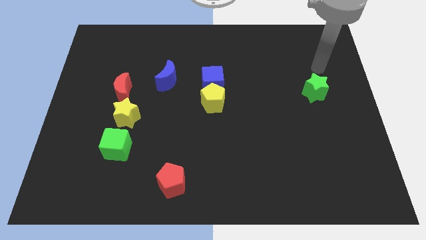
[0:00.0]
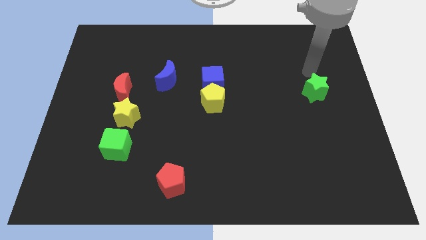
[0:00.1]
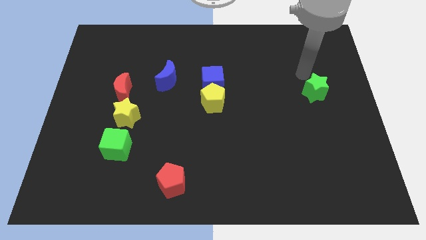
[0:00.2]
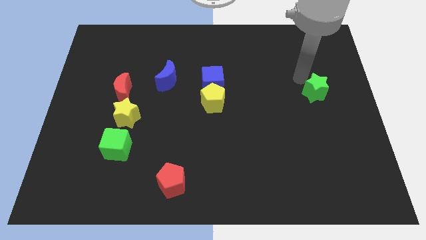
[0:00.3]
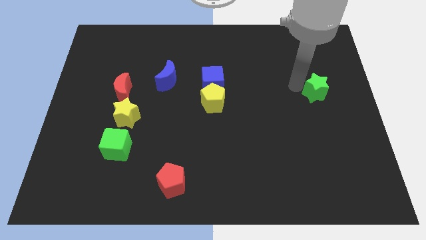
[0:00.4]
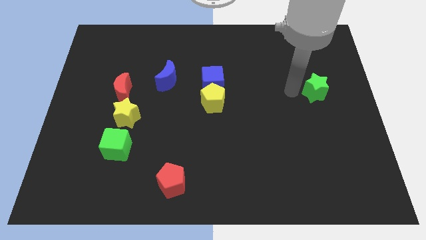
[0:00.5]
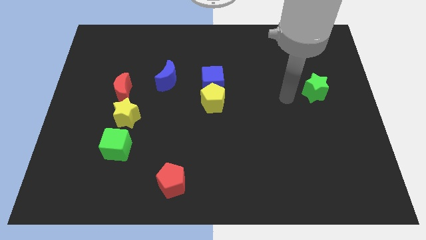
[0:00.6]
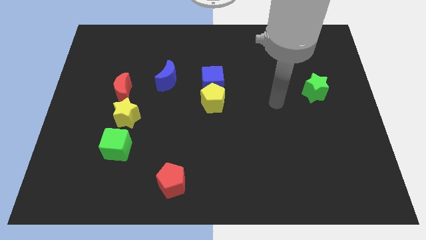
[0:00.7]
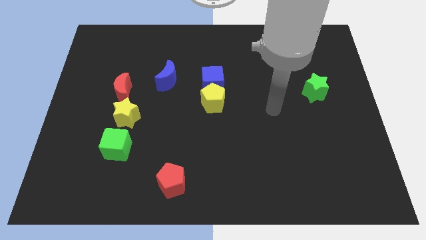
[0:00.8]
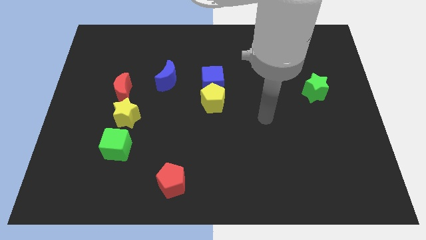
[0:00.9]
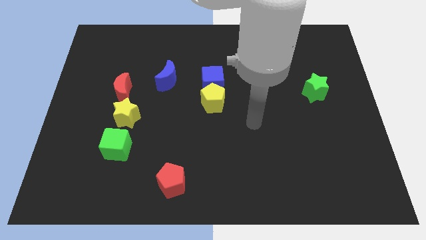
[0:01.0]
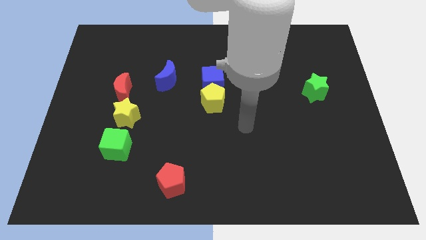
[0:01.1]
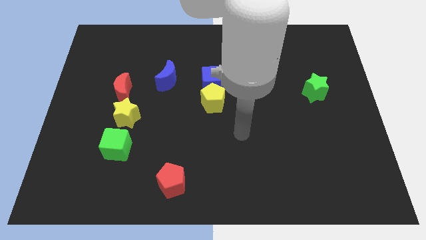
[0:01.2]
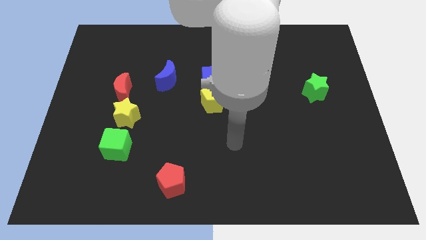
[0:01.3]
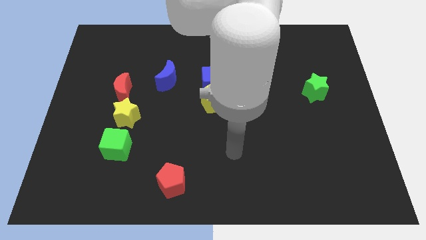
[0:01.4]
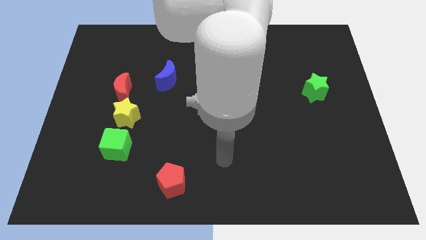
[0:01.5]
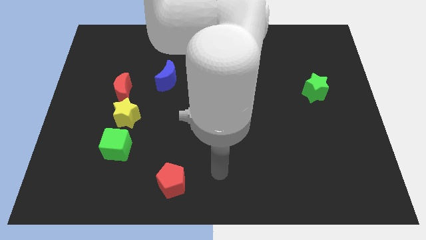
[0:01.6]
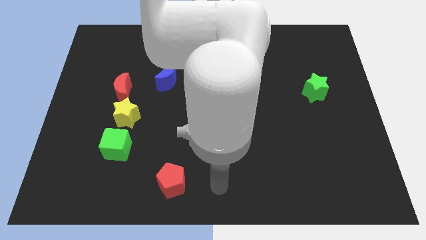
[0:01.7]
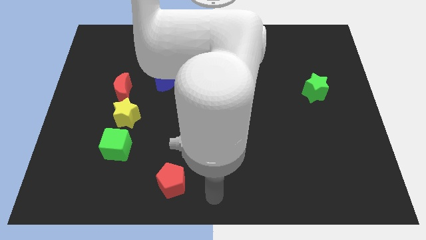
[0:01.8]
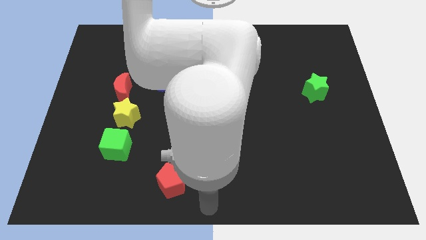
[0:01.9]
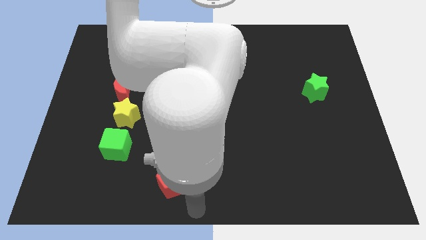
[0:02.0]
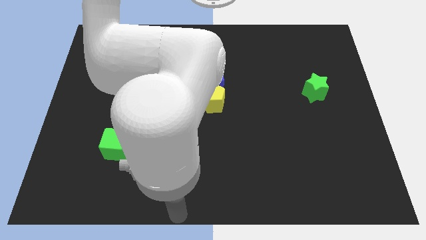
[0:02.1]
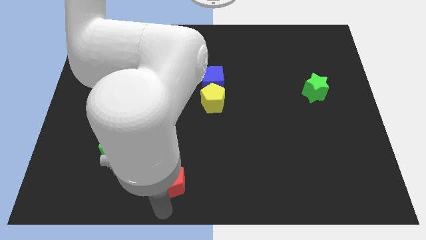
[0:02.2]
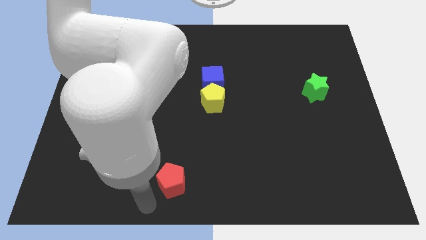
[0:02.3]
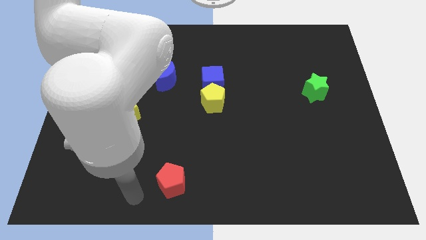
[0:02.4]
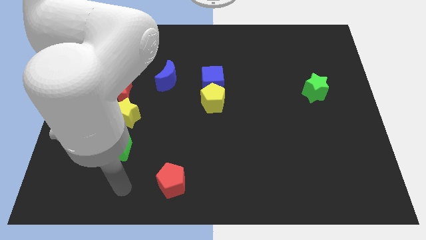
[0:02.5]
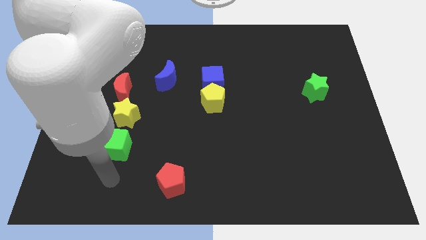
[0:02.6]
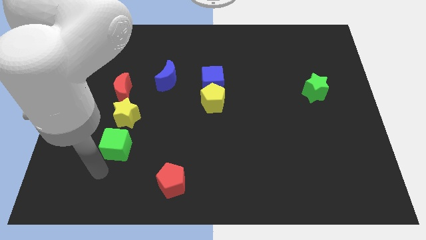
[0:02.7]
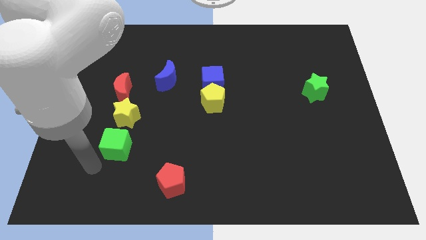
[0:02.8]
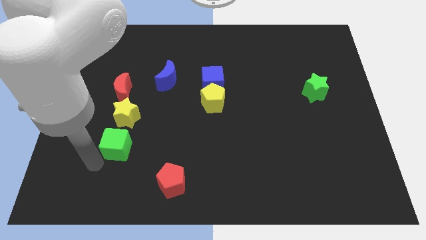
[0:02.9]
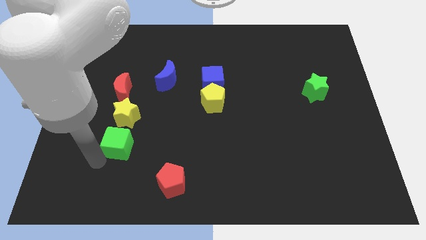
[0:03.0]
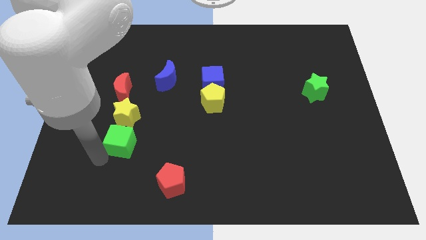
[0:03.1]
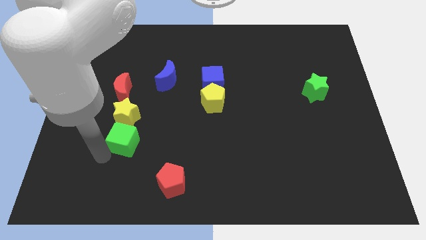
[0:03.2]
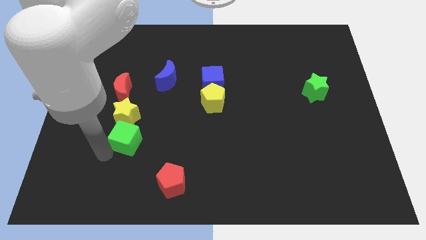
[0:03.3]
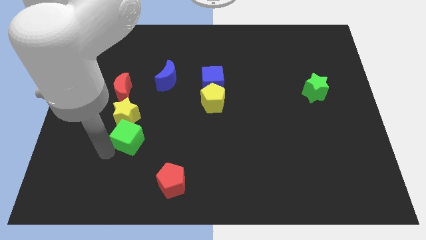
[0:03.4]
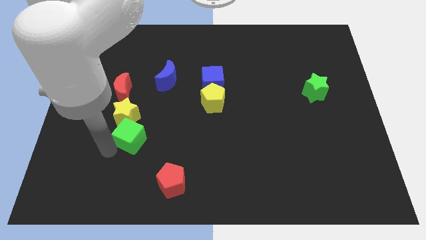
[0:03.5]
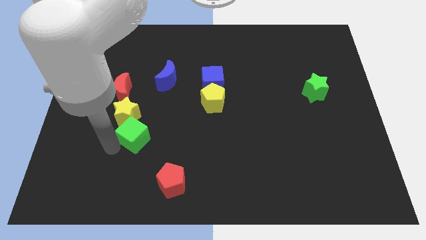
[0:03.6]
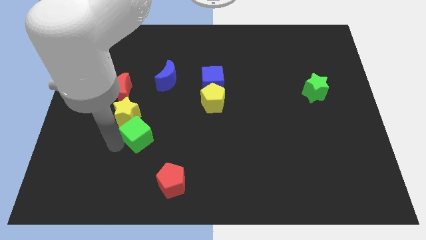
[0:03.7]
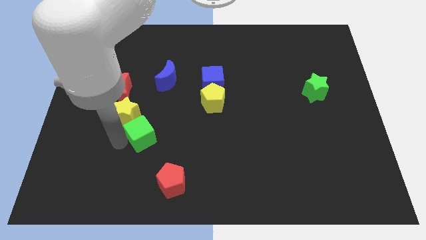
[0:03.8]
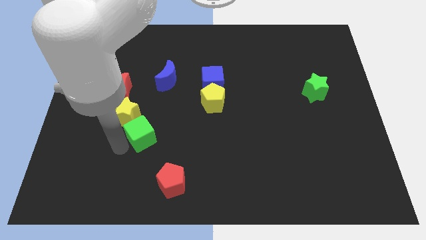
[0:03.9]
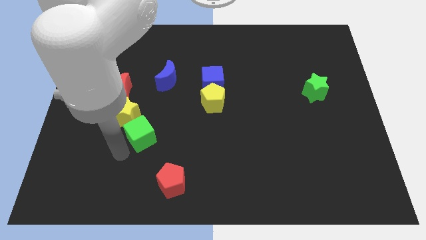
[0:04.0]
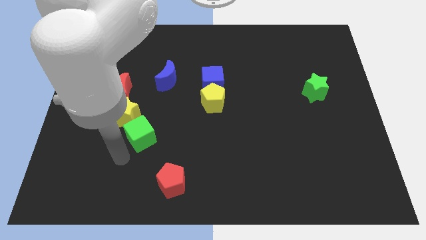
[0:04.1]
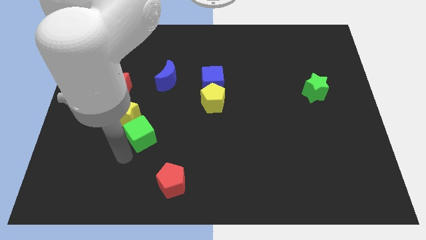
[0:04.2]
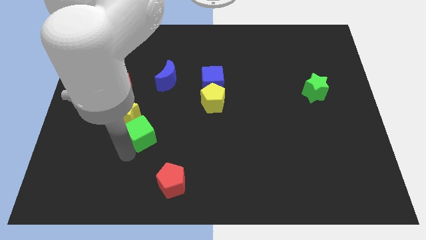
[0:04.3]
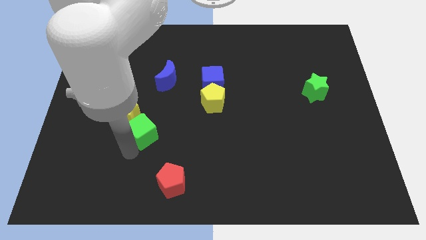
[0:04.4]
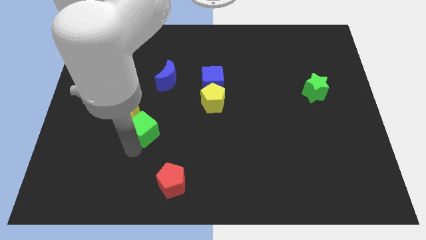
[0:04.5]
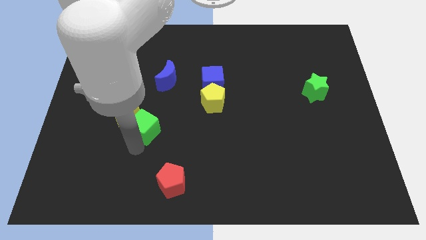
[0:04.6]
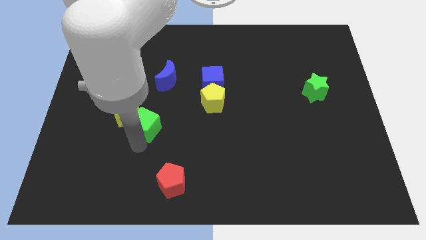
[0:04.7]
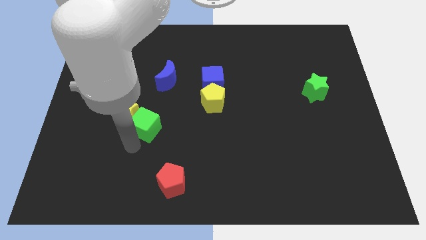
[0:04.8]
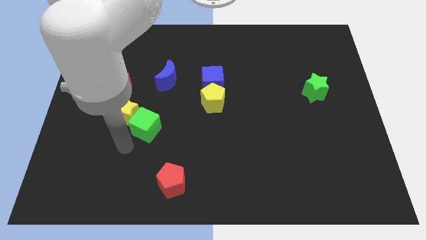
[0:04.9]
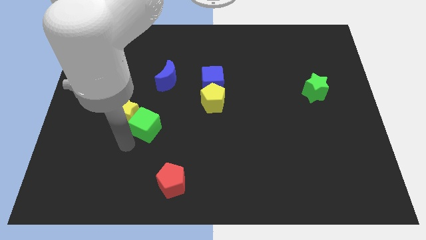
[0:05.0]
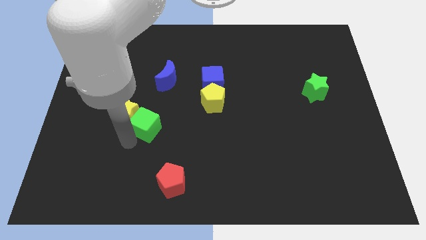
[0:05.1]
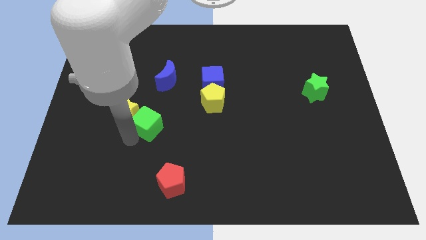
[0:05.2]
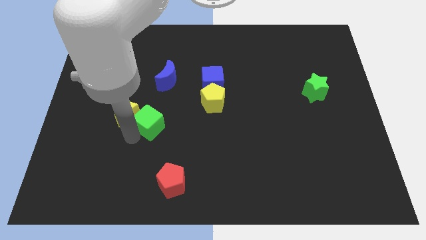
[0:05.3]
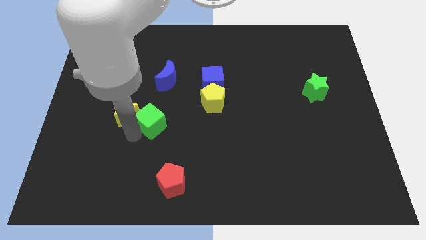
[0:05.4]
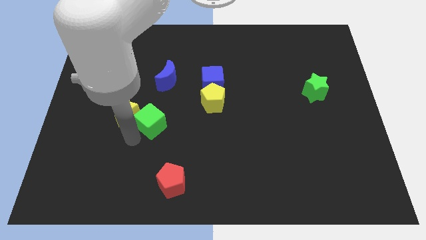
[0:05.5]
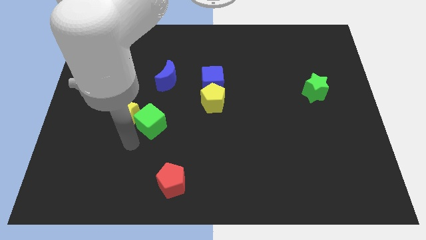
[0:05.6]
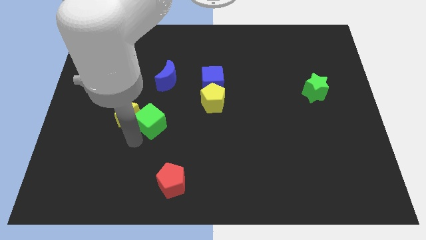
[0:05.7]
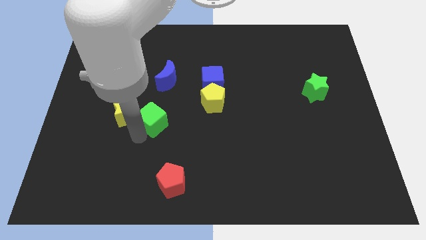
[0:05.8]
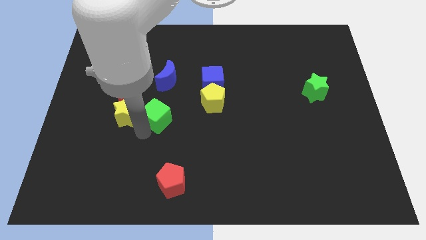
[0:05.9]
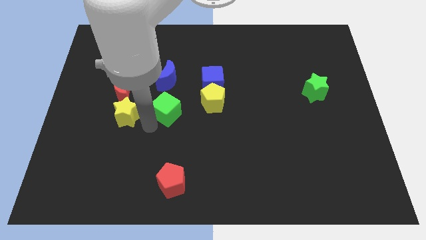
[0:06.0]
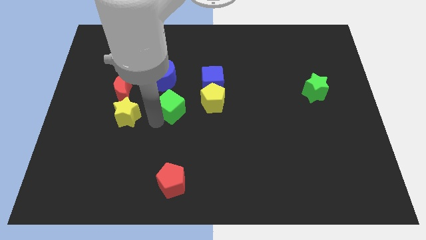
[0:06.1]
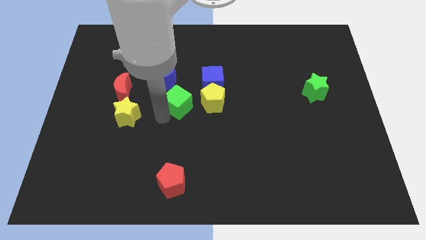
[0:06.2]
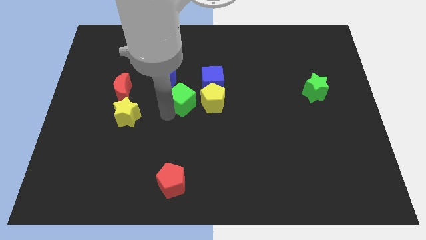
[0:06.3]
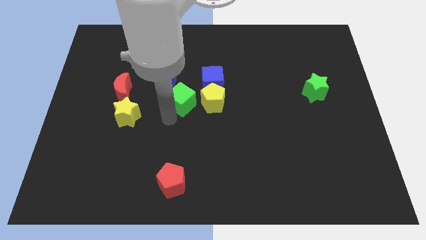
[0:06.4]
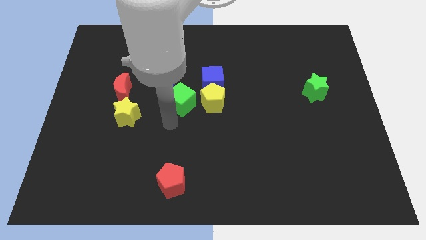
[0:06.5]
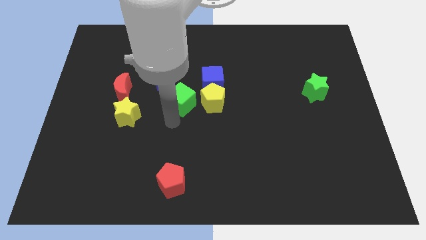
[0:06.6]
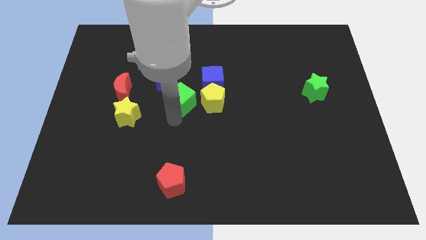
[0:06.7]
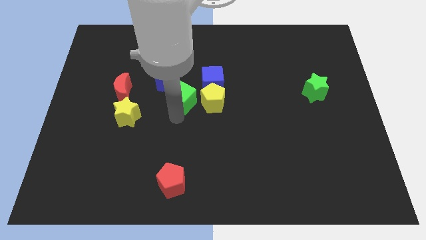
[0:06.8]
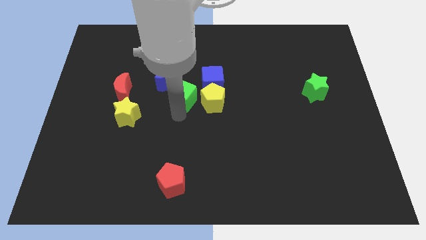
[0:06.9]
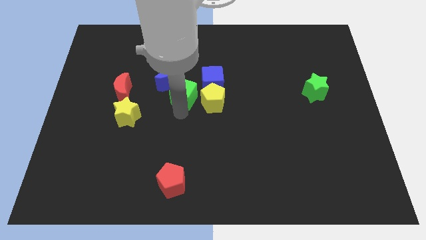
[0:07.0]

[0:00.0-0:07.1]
push the green cube diagonally up and right

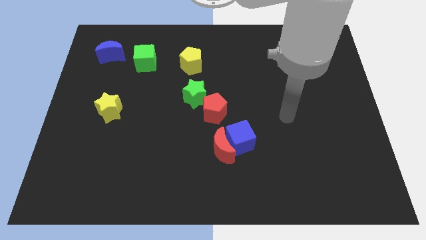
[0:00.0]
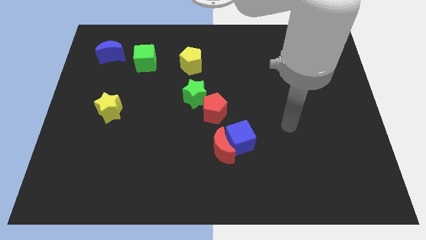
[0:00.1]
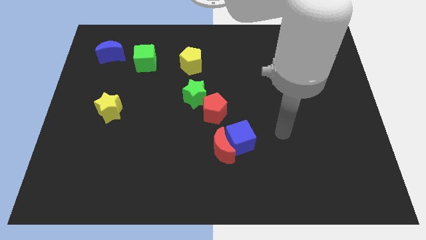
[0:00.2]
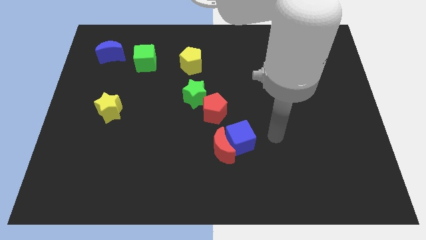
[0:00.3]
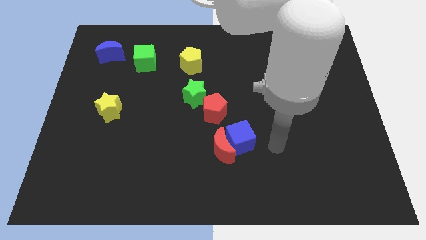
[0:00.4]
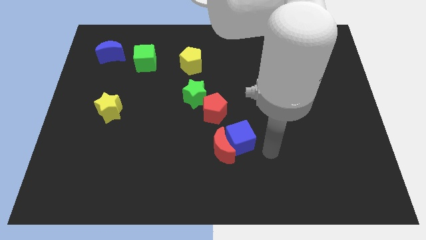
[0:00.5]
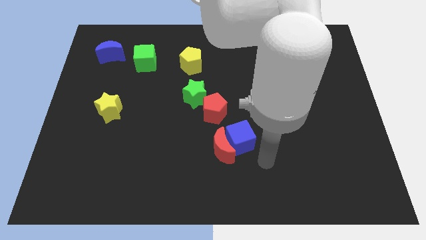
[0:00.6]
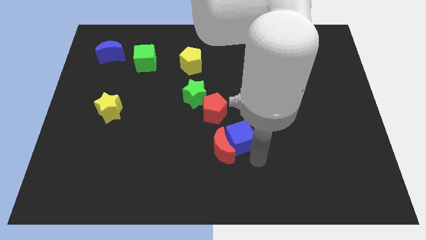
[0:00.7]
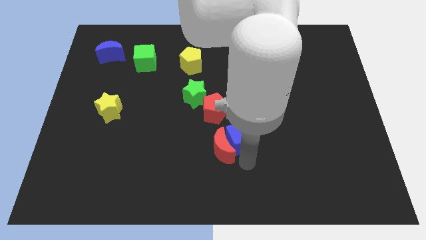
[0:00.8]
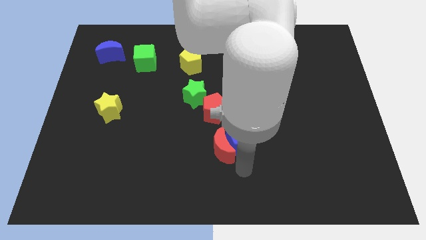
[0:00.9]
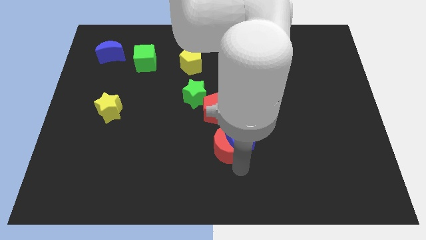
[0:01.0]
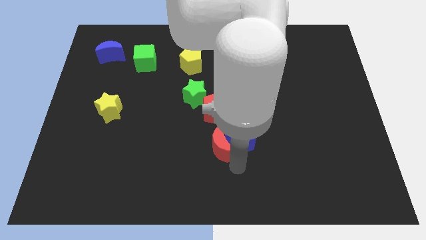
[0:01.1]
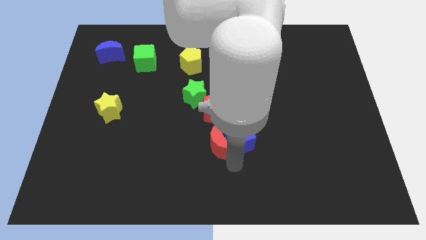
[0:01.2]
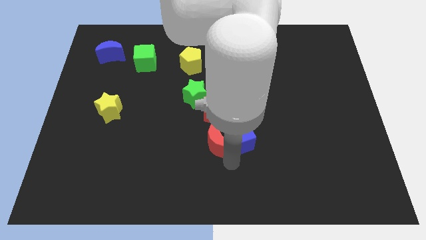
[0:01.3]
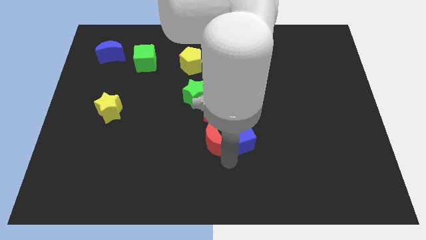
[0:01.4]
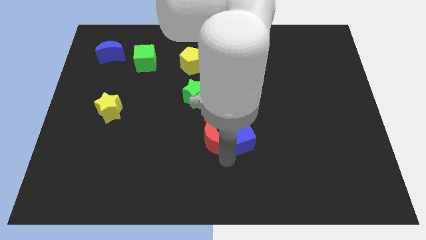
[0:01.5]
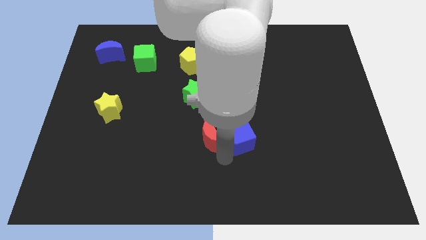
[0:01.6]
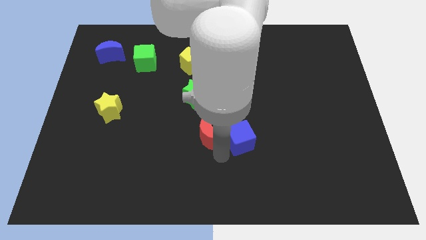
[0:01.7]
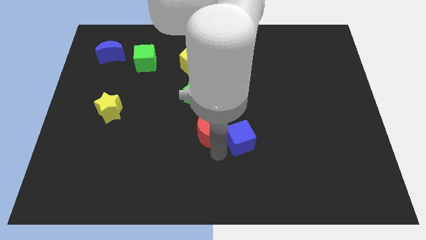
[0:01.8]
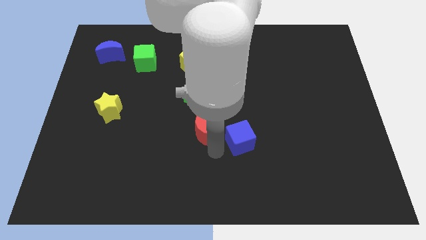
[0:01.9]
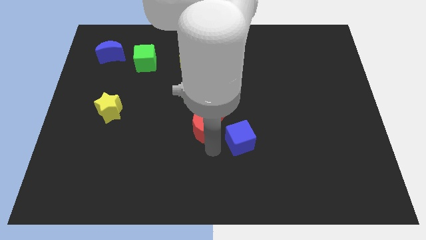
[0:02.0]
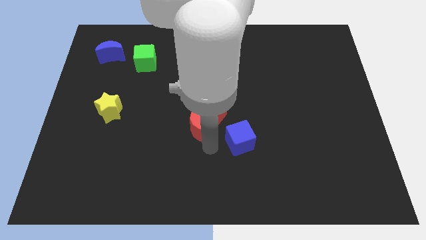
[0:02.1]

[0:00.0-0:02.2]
move the red moon a bit diagonally upwards and left
